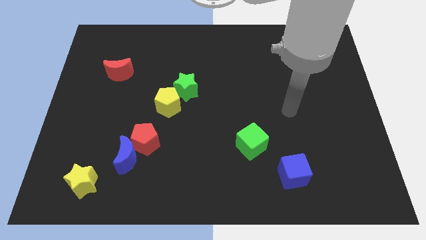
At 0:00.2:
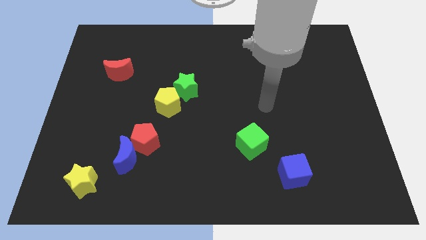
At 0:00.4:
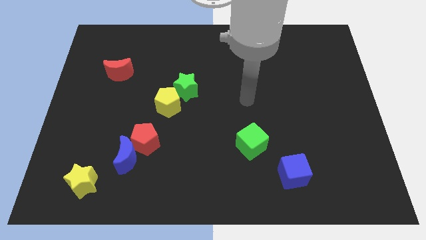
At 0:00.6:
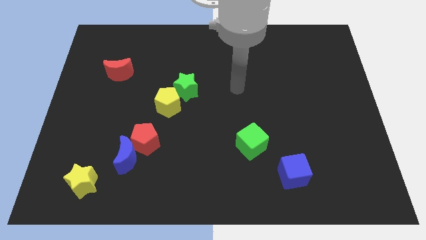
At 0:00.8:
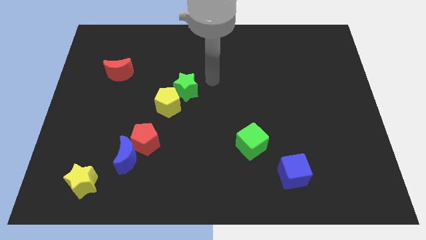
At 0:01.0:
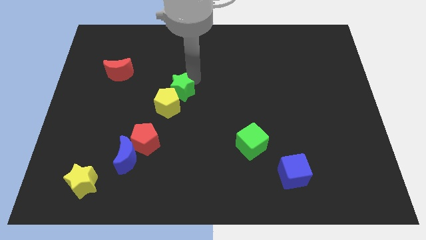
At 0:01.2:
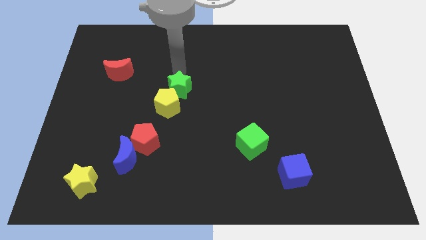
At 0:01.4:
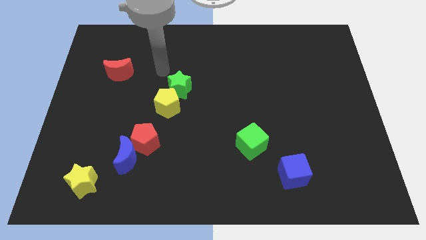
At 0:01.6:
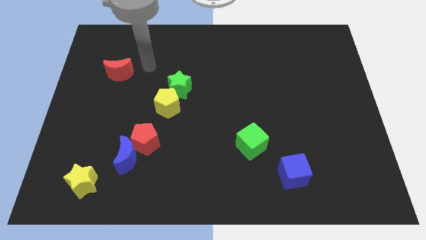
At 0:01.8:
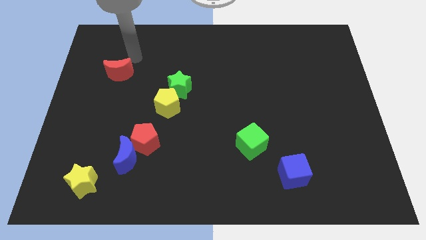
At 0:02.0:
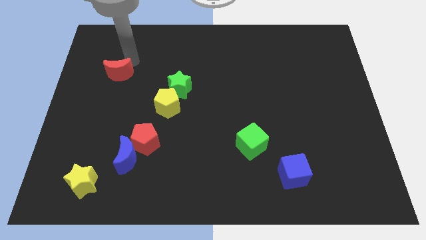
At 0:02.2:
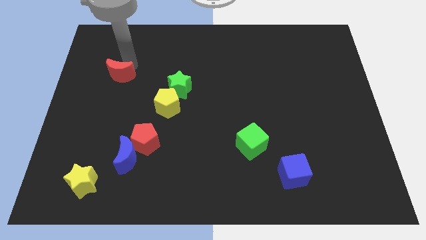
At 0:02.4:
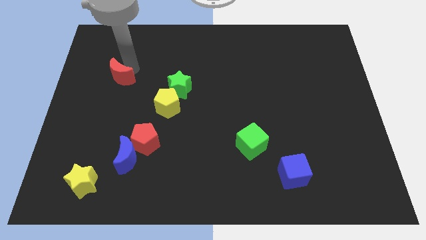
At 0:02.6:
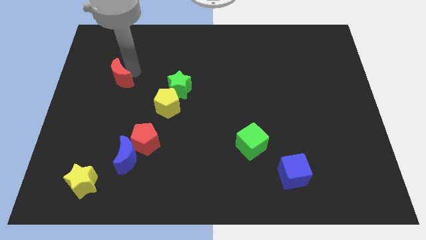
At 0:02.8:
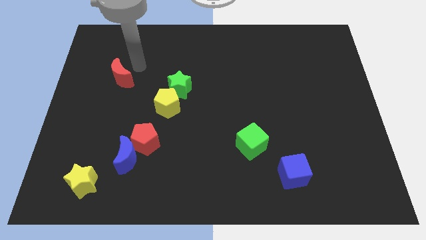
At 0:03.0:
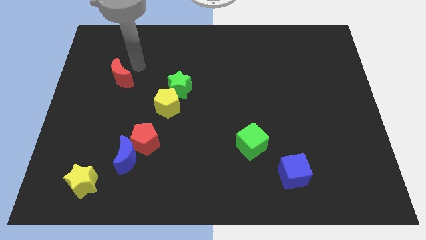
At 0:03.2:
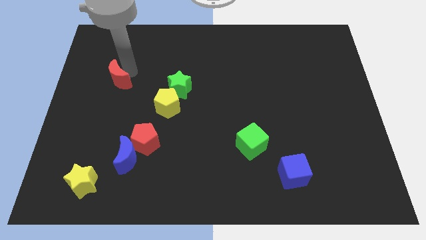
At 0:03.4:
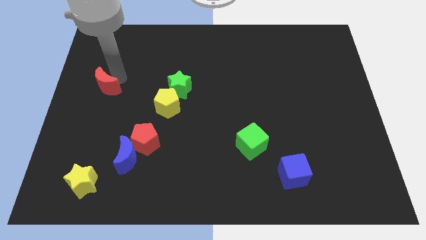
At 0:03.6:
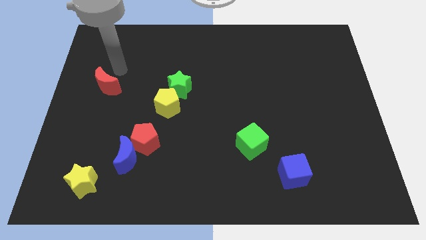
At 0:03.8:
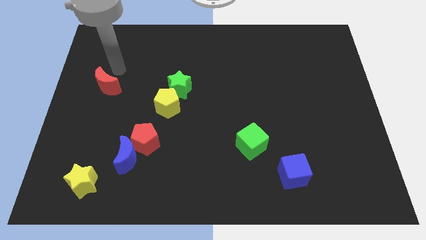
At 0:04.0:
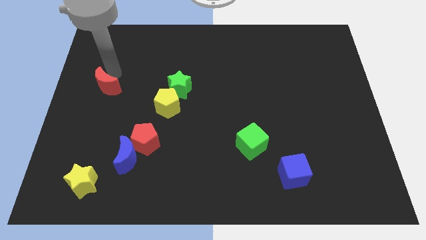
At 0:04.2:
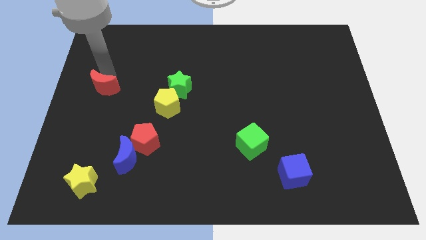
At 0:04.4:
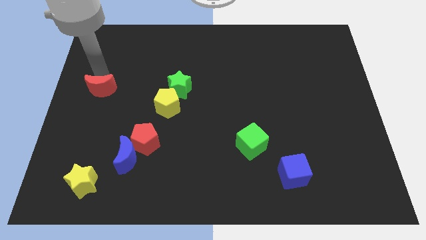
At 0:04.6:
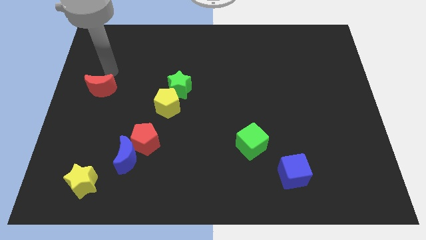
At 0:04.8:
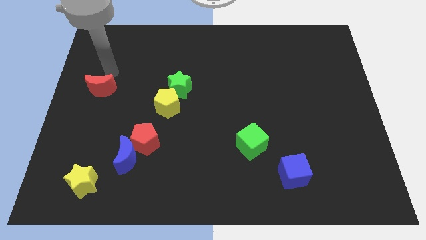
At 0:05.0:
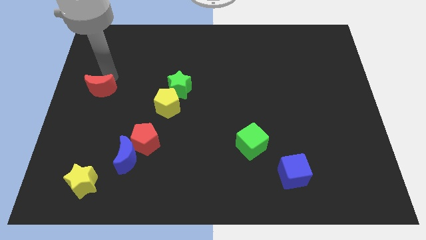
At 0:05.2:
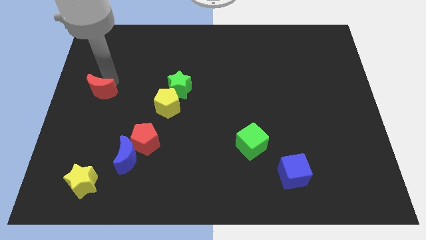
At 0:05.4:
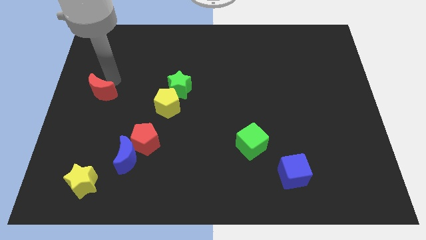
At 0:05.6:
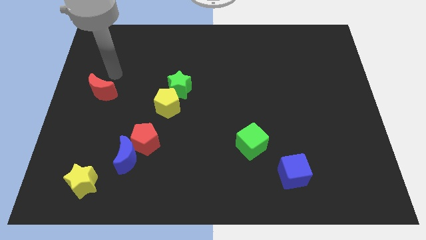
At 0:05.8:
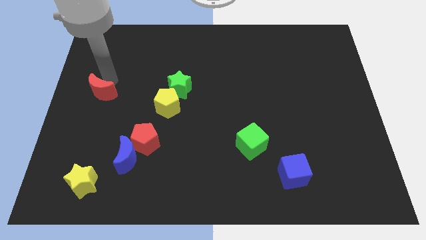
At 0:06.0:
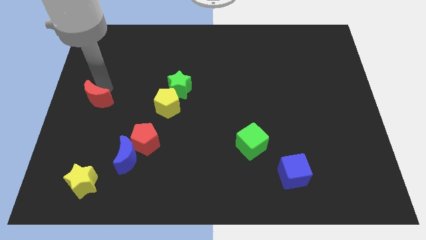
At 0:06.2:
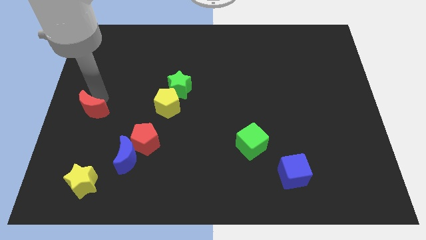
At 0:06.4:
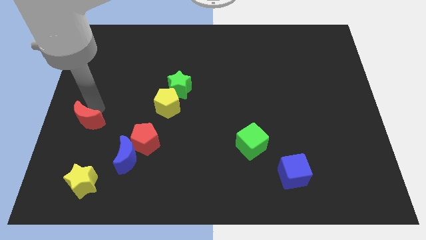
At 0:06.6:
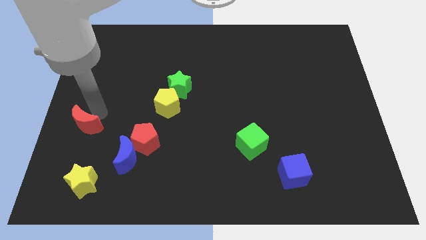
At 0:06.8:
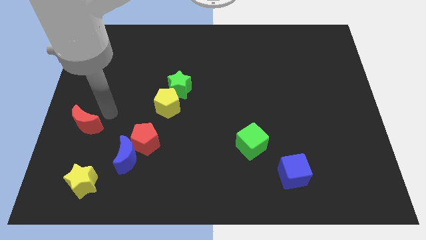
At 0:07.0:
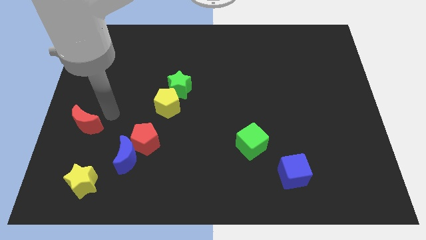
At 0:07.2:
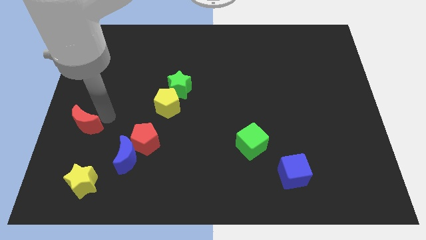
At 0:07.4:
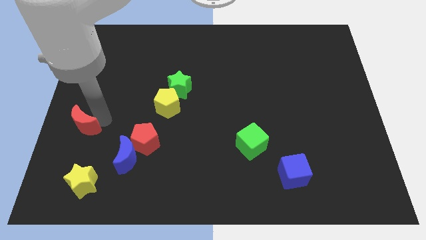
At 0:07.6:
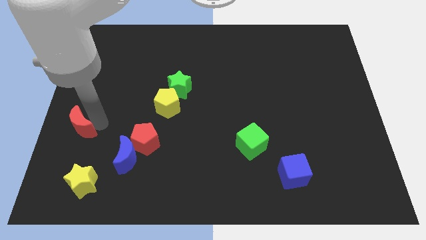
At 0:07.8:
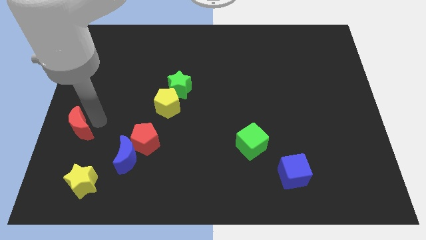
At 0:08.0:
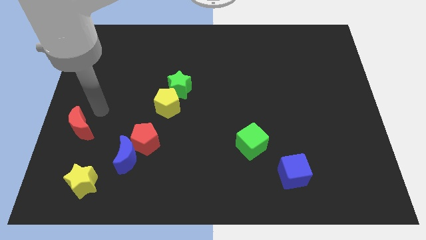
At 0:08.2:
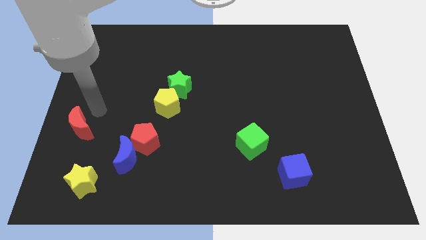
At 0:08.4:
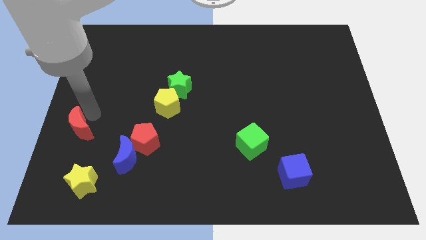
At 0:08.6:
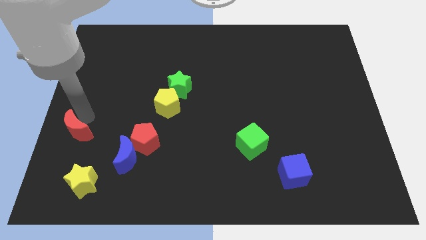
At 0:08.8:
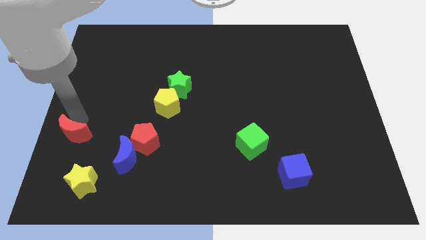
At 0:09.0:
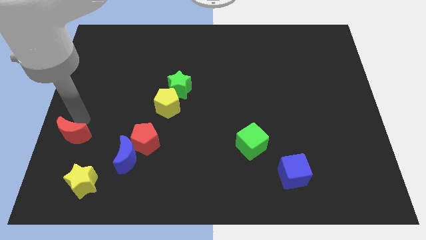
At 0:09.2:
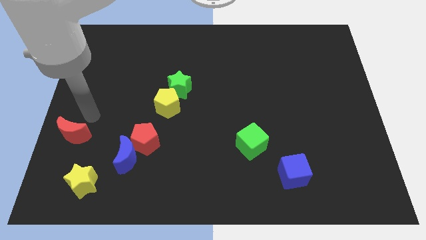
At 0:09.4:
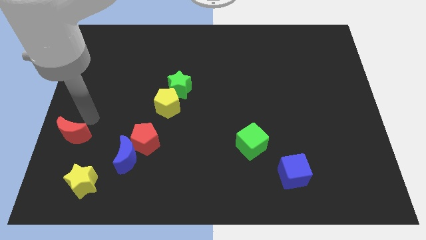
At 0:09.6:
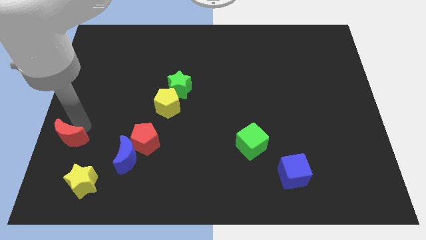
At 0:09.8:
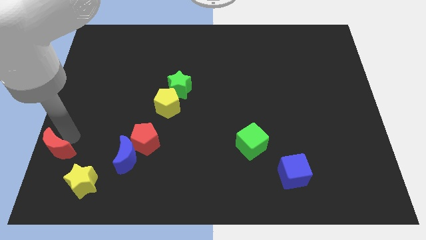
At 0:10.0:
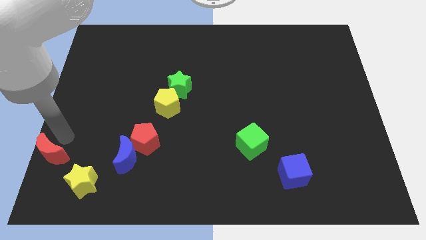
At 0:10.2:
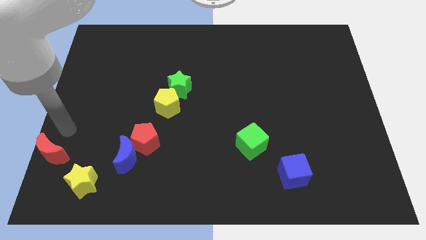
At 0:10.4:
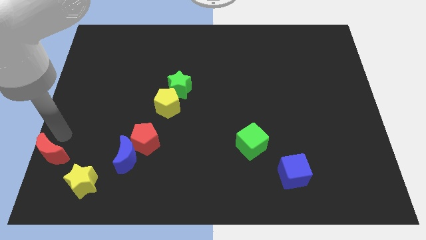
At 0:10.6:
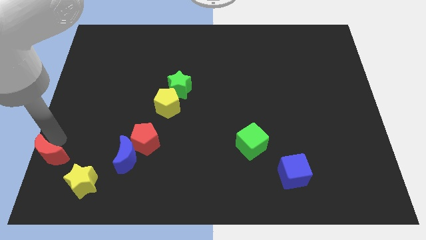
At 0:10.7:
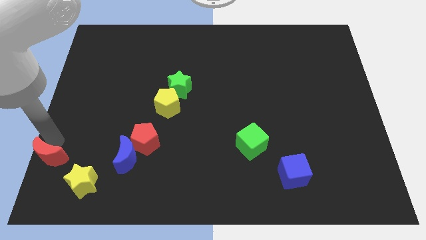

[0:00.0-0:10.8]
slide the red moon to the bottom left

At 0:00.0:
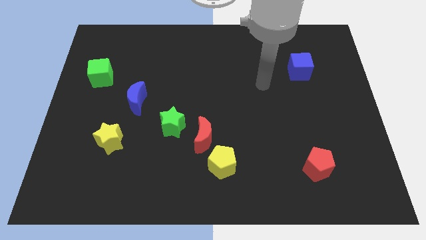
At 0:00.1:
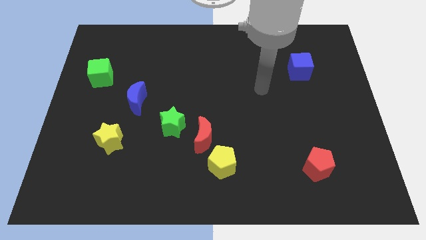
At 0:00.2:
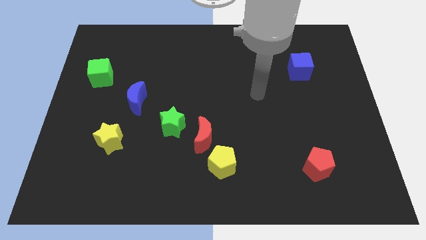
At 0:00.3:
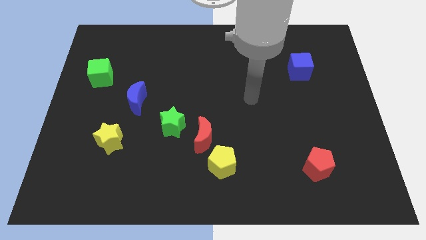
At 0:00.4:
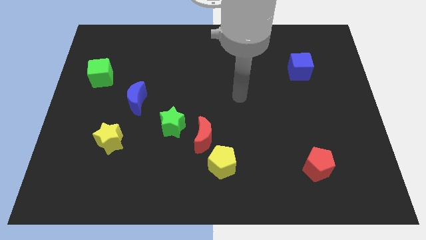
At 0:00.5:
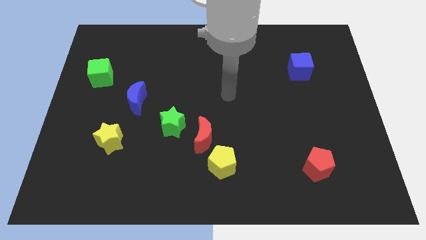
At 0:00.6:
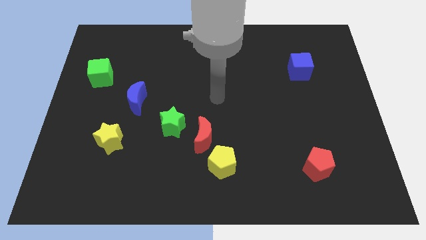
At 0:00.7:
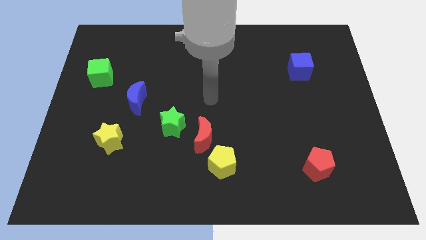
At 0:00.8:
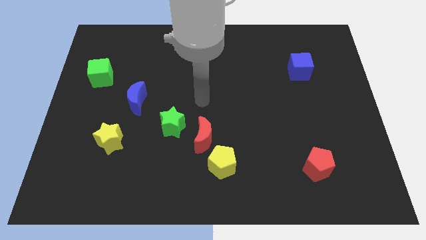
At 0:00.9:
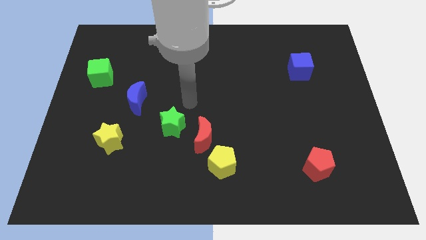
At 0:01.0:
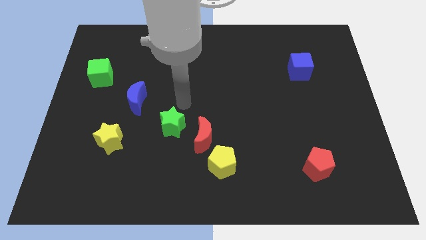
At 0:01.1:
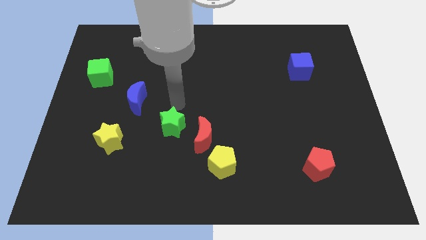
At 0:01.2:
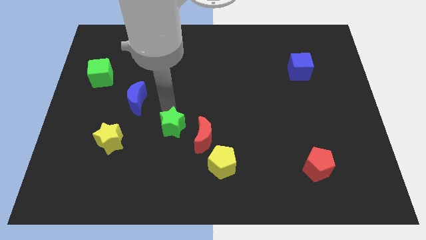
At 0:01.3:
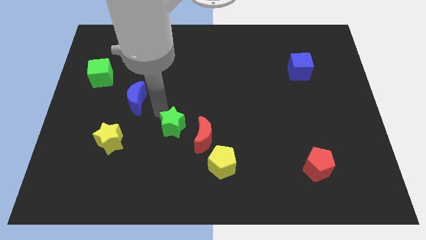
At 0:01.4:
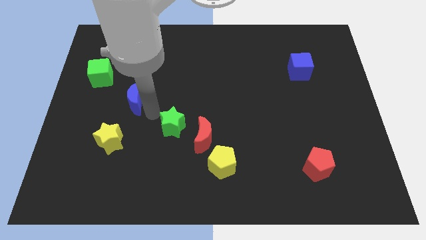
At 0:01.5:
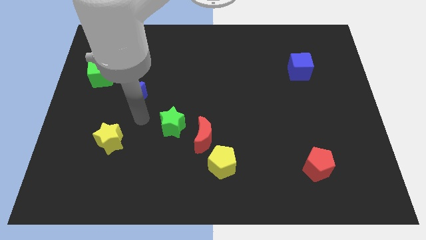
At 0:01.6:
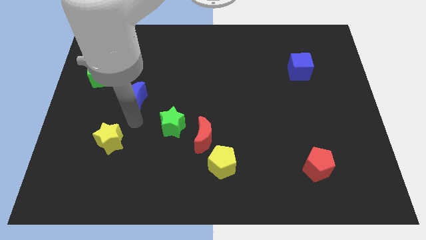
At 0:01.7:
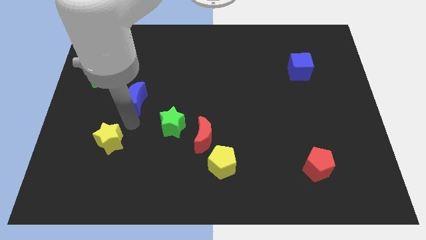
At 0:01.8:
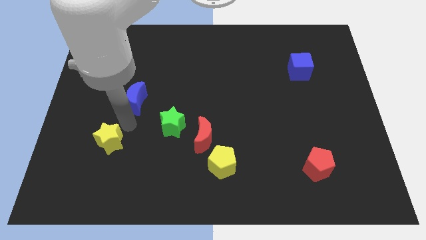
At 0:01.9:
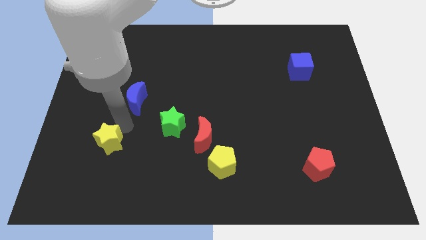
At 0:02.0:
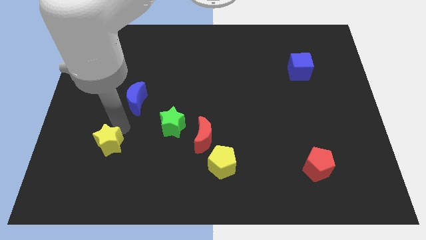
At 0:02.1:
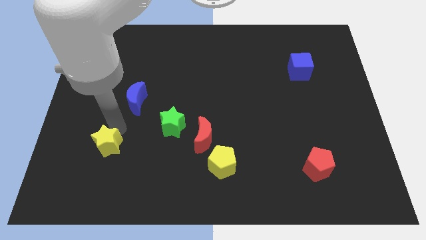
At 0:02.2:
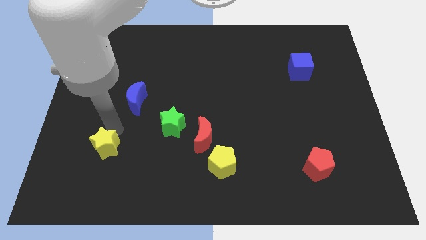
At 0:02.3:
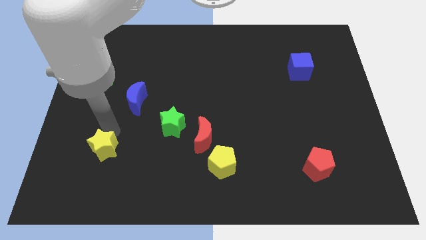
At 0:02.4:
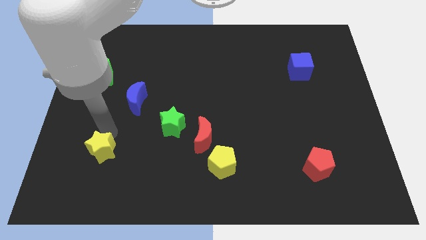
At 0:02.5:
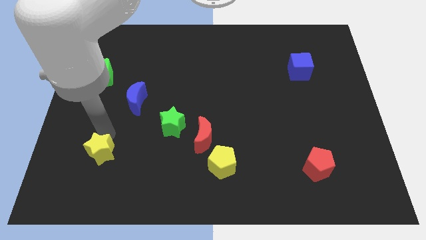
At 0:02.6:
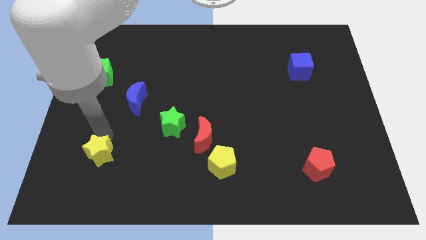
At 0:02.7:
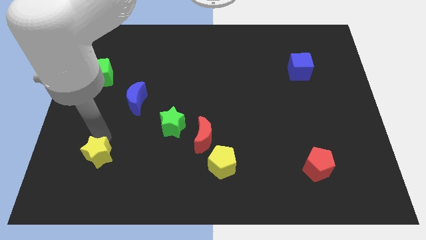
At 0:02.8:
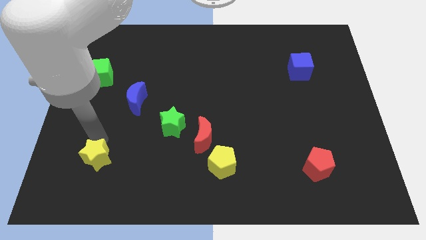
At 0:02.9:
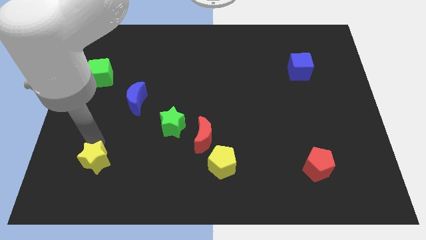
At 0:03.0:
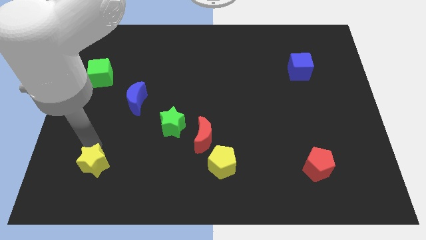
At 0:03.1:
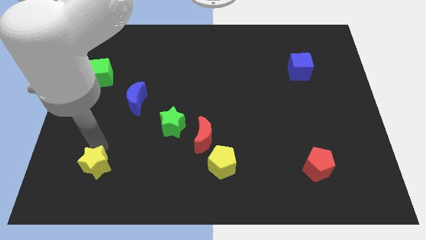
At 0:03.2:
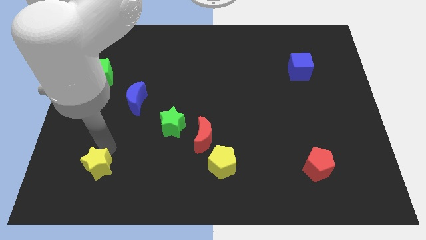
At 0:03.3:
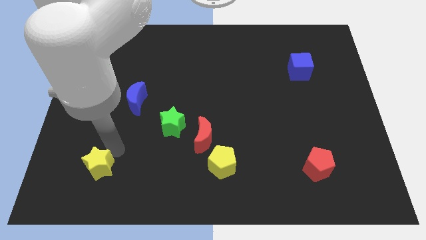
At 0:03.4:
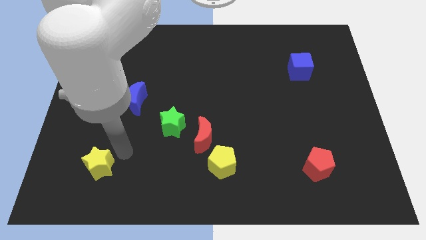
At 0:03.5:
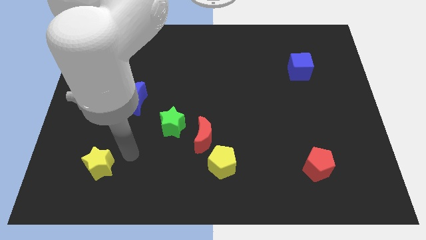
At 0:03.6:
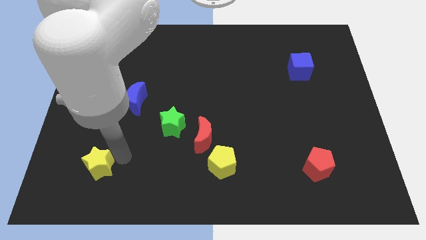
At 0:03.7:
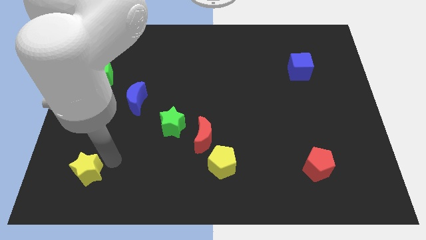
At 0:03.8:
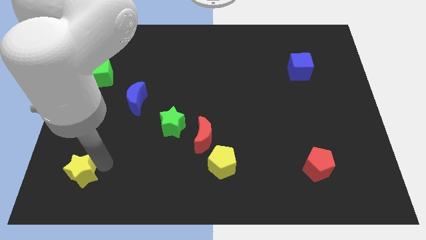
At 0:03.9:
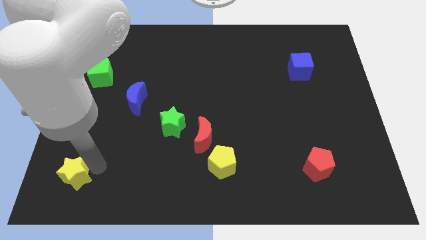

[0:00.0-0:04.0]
push the yellow star to the bottom left corner
